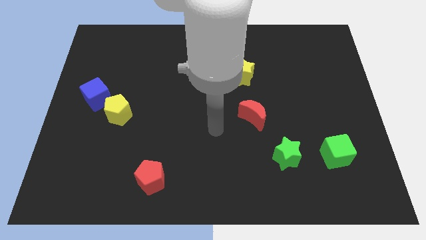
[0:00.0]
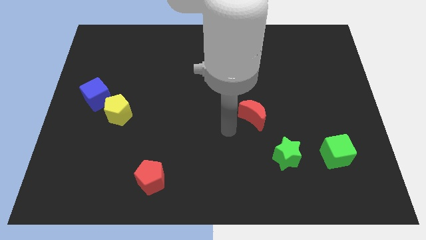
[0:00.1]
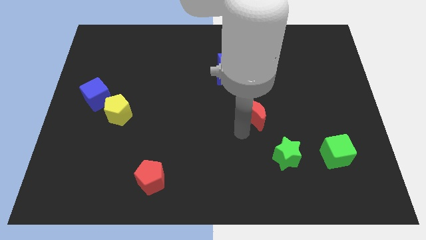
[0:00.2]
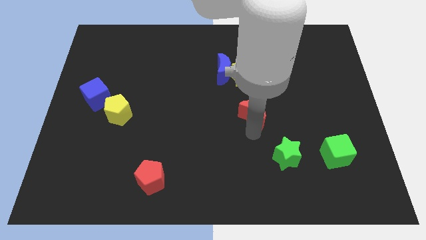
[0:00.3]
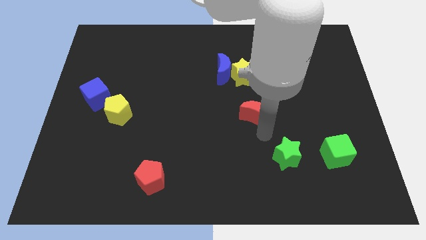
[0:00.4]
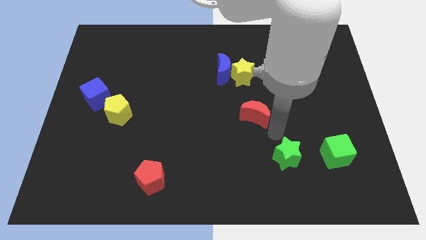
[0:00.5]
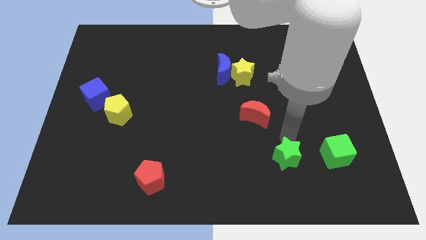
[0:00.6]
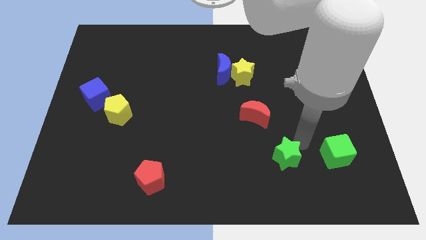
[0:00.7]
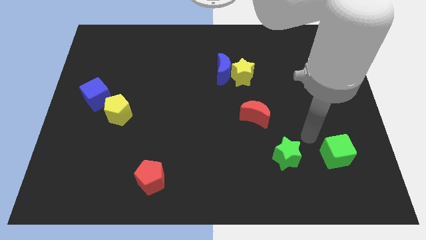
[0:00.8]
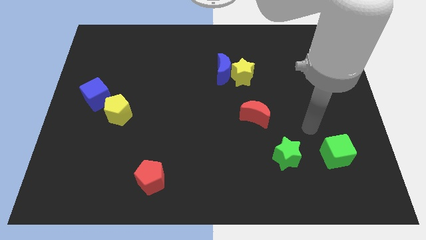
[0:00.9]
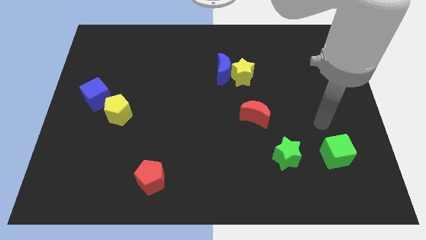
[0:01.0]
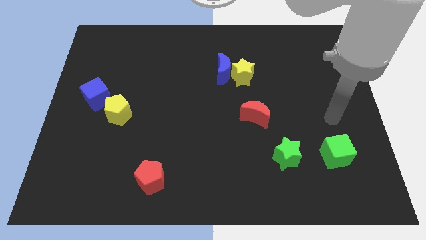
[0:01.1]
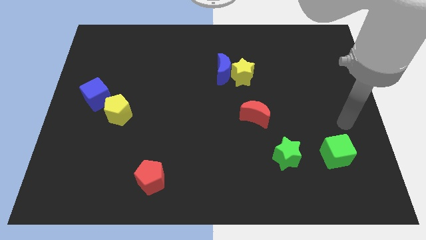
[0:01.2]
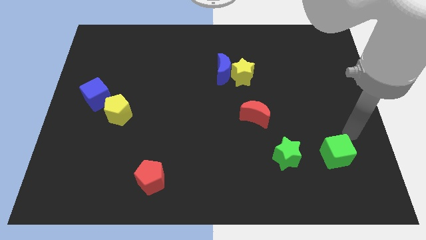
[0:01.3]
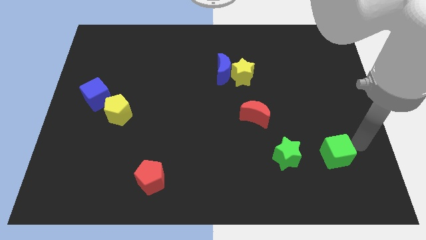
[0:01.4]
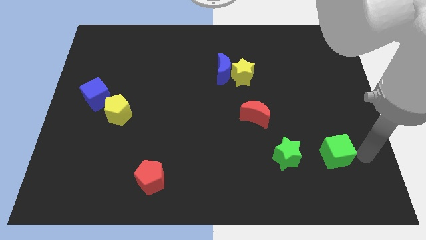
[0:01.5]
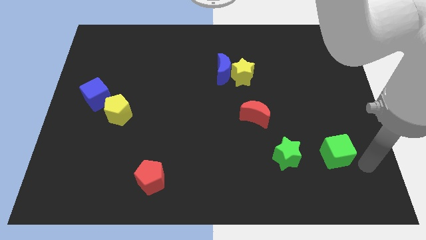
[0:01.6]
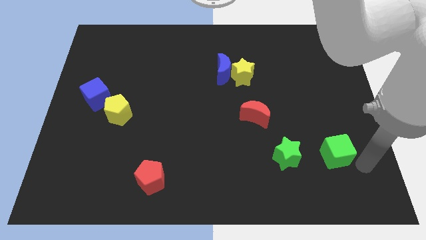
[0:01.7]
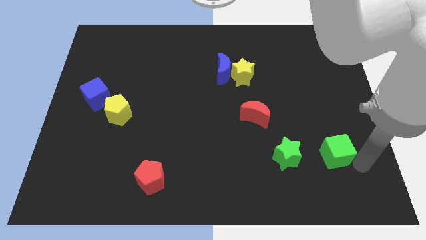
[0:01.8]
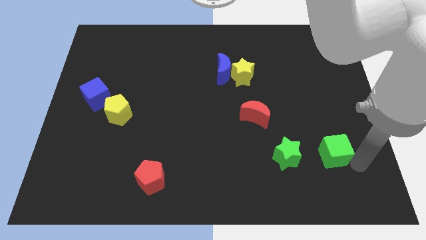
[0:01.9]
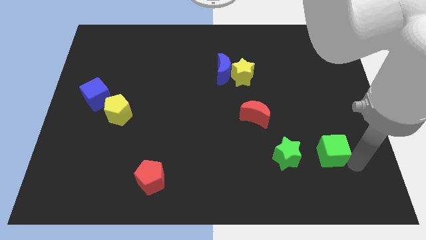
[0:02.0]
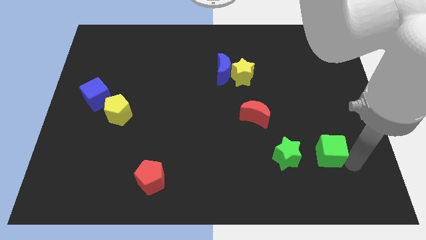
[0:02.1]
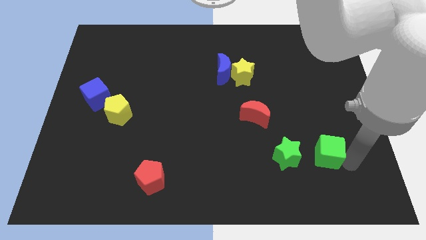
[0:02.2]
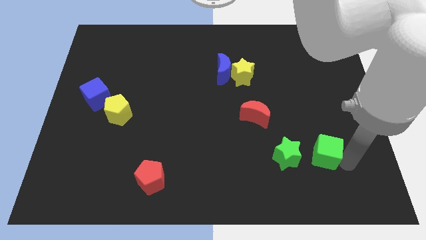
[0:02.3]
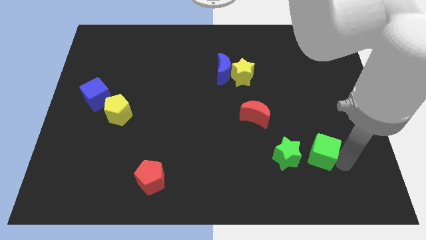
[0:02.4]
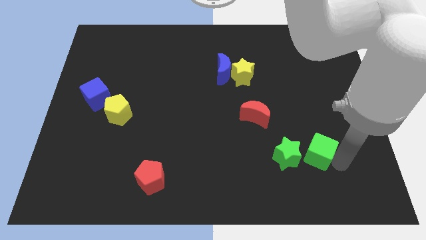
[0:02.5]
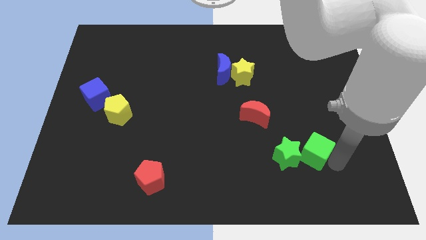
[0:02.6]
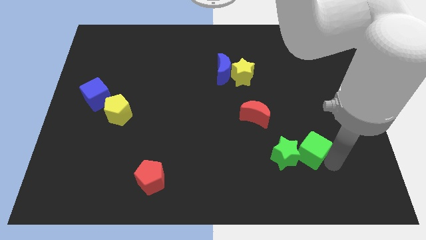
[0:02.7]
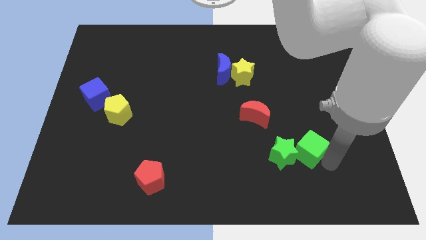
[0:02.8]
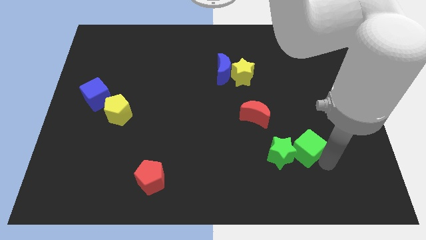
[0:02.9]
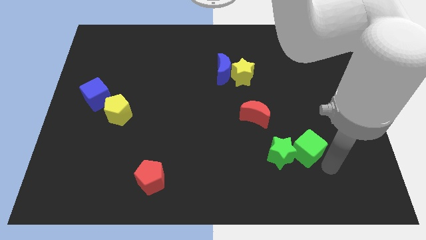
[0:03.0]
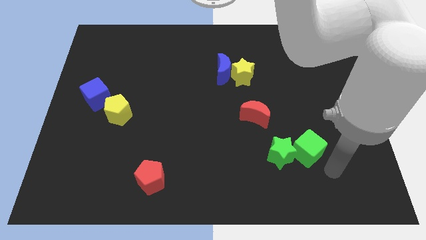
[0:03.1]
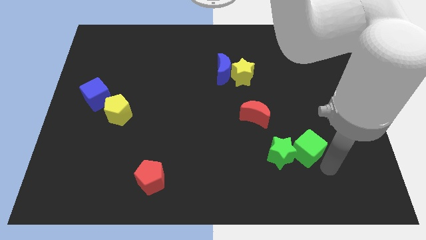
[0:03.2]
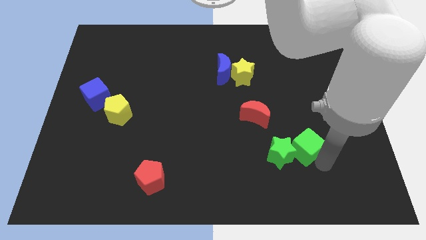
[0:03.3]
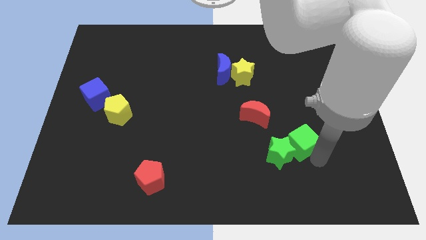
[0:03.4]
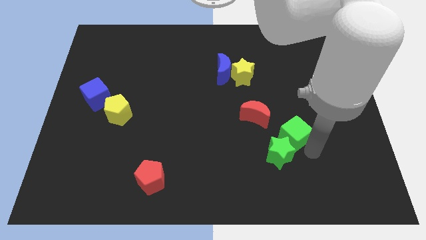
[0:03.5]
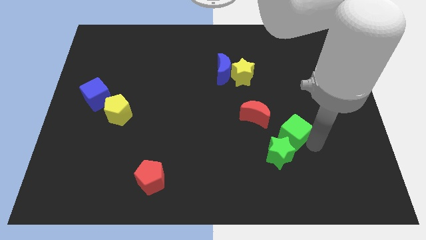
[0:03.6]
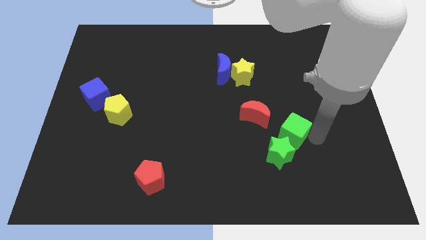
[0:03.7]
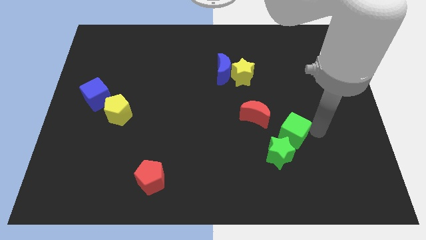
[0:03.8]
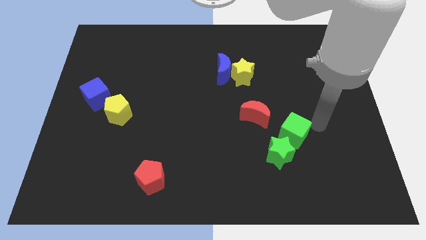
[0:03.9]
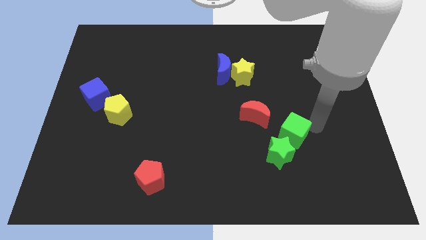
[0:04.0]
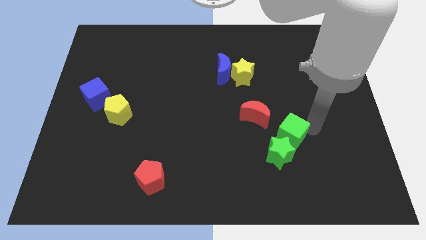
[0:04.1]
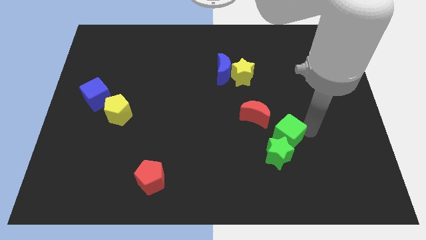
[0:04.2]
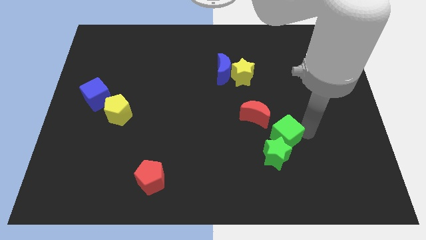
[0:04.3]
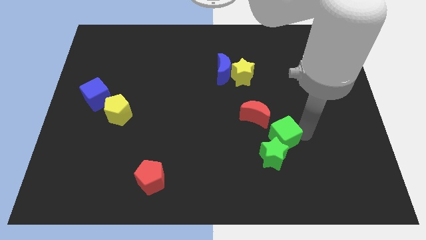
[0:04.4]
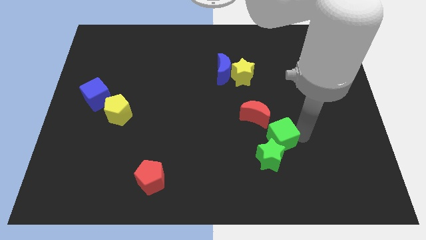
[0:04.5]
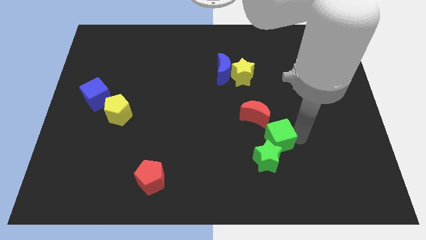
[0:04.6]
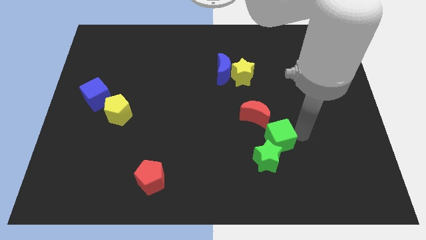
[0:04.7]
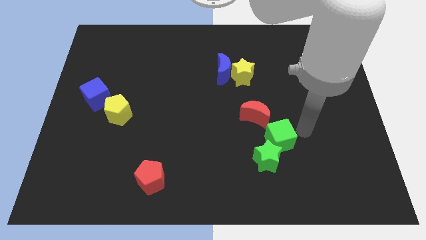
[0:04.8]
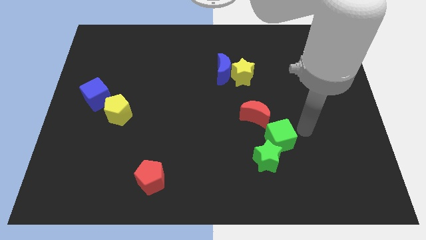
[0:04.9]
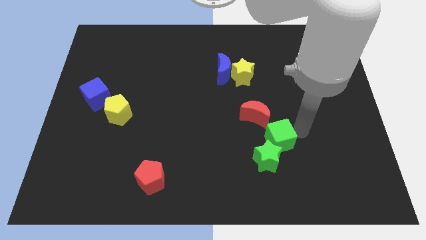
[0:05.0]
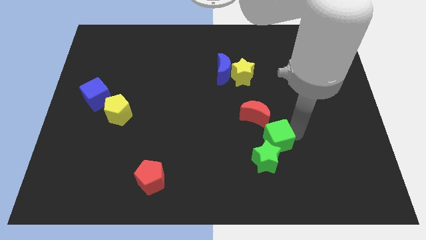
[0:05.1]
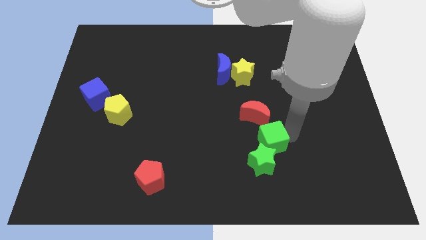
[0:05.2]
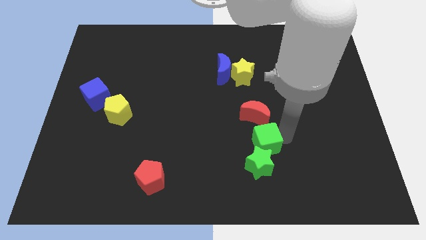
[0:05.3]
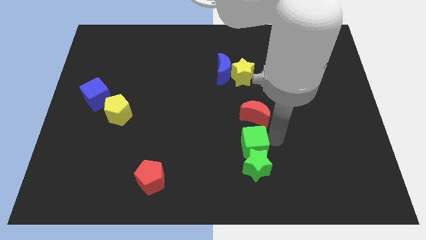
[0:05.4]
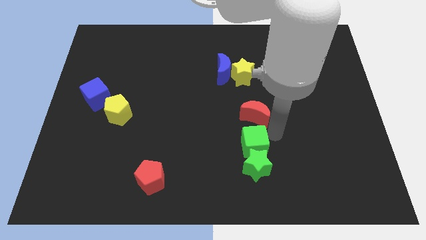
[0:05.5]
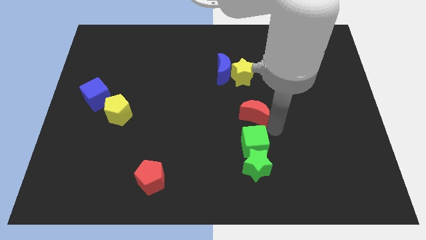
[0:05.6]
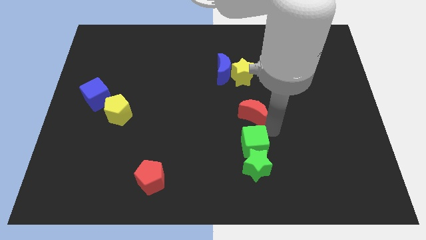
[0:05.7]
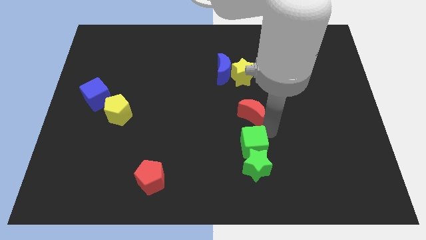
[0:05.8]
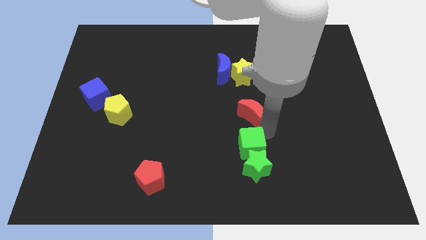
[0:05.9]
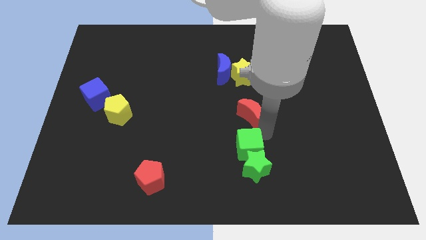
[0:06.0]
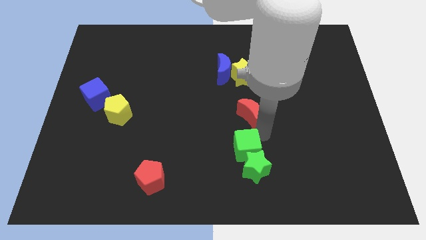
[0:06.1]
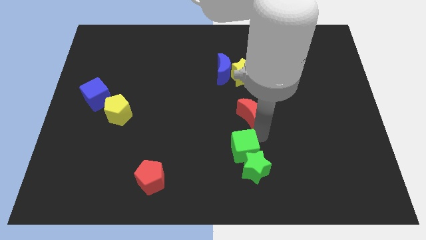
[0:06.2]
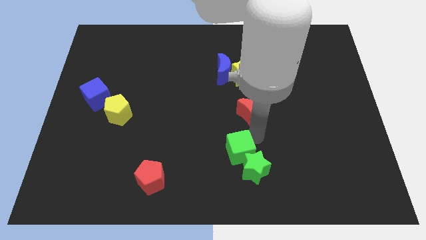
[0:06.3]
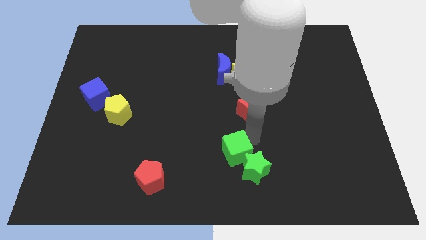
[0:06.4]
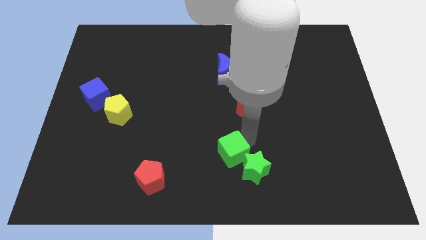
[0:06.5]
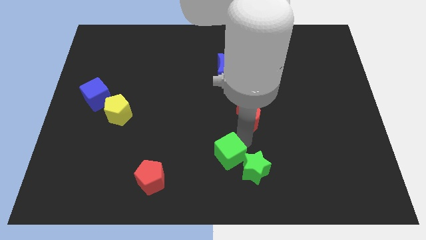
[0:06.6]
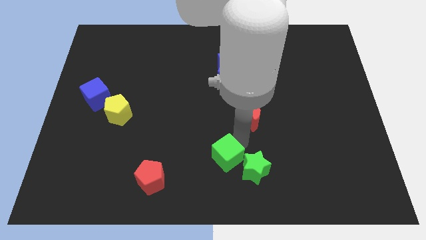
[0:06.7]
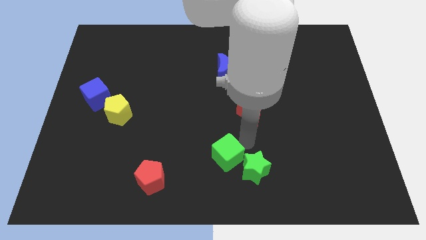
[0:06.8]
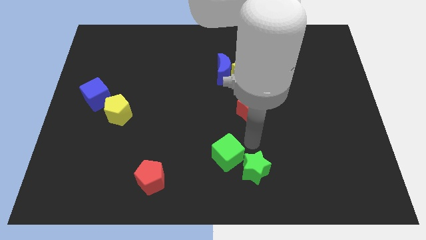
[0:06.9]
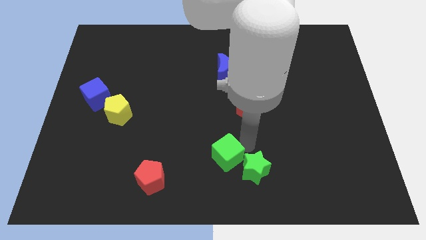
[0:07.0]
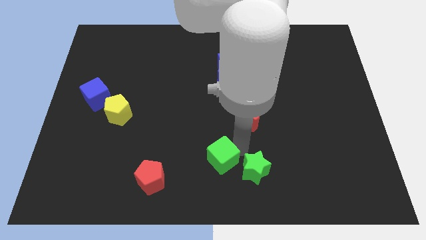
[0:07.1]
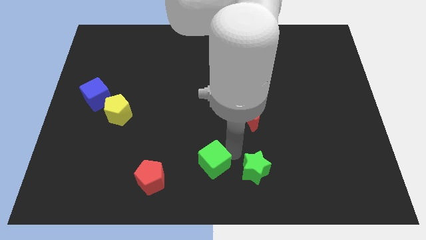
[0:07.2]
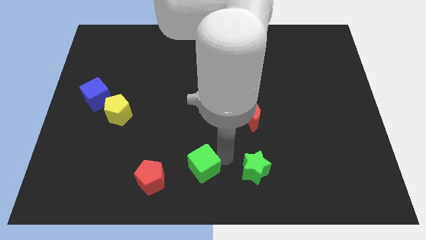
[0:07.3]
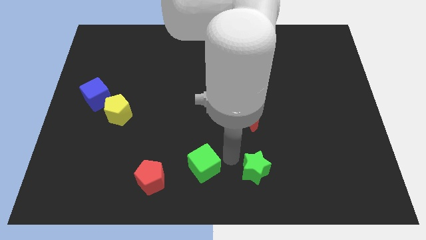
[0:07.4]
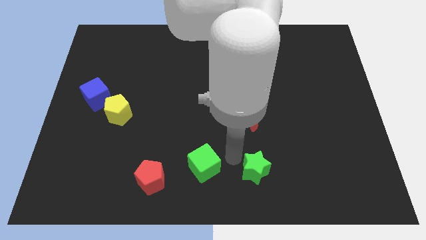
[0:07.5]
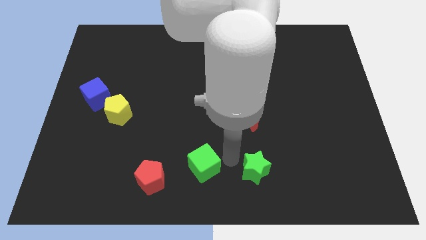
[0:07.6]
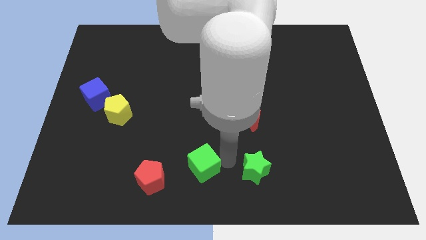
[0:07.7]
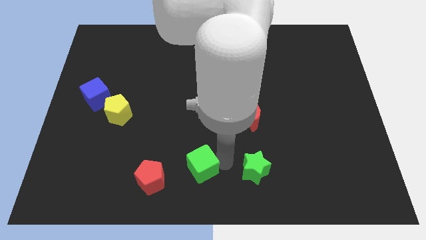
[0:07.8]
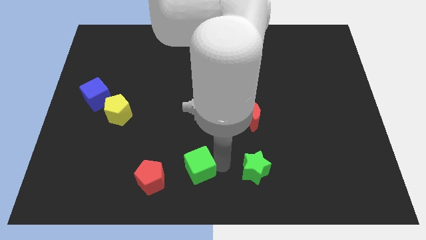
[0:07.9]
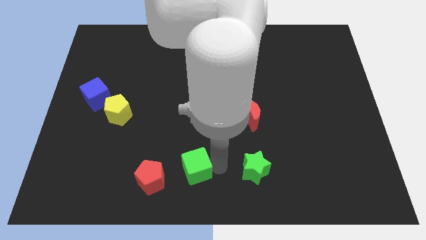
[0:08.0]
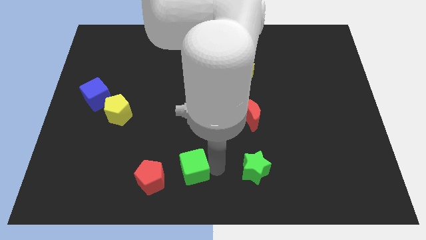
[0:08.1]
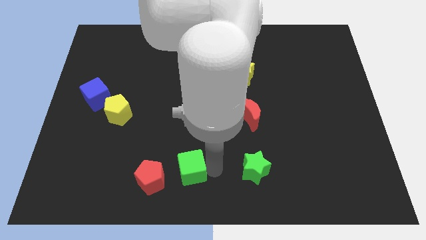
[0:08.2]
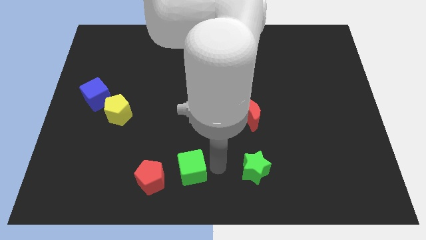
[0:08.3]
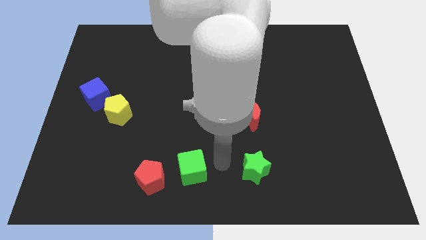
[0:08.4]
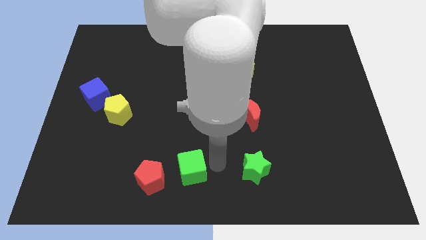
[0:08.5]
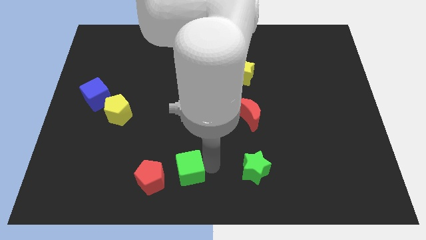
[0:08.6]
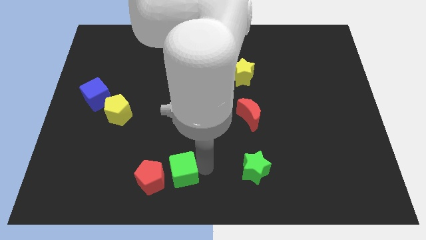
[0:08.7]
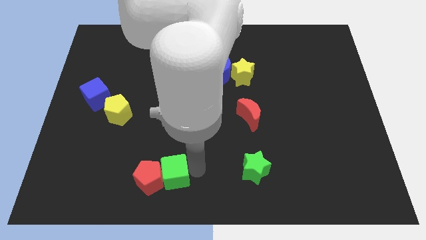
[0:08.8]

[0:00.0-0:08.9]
slide the green cube to the red pentagon
